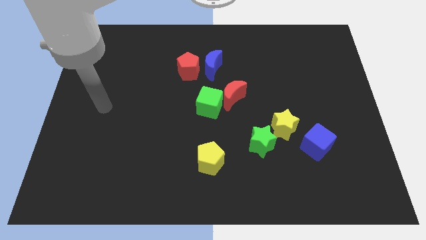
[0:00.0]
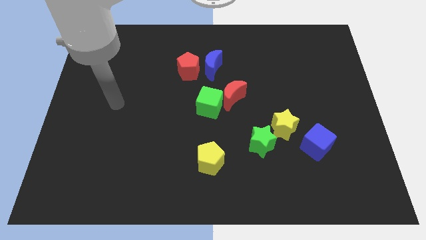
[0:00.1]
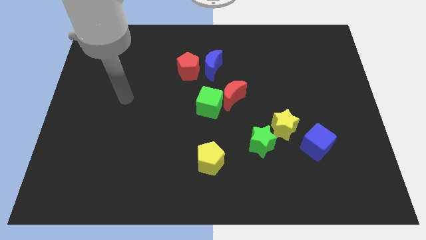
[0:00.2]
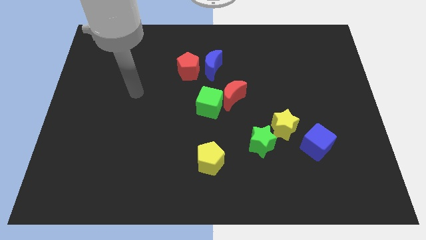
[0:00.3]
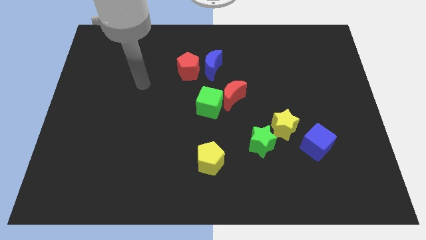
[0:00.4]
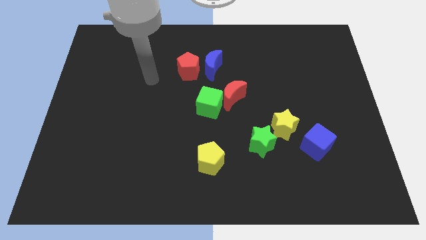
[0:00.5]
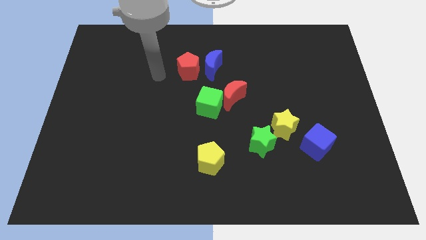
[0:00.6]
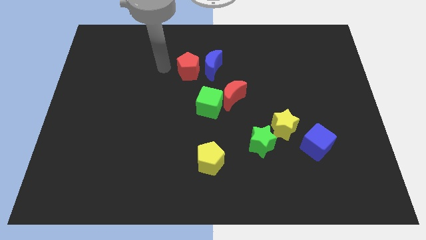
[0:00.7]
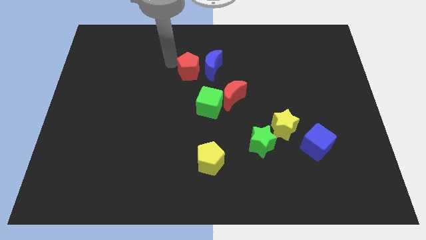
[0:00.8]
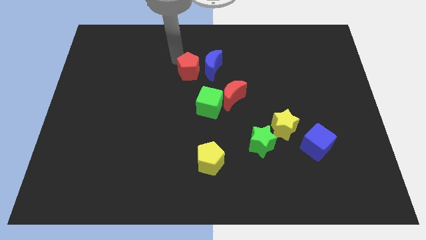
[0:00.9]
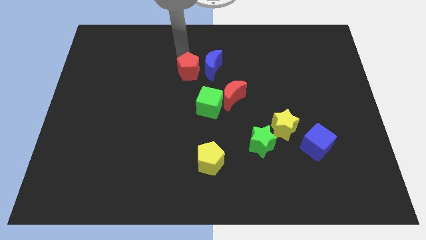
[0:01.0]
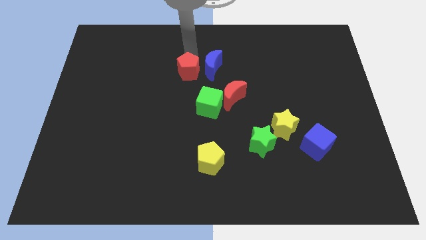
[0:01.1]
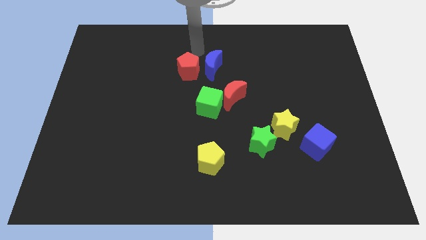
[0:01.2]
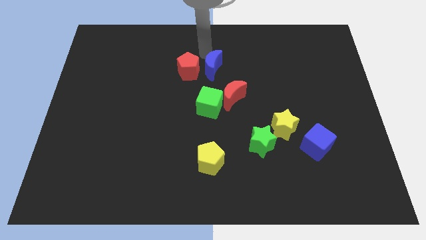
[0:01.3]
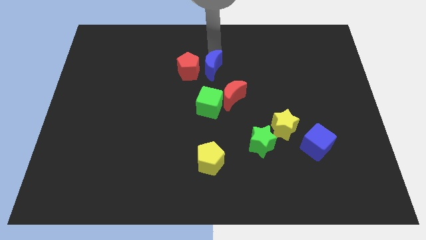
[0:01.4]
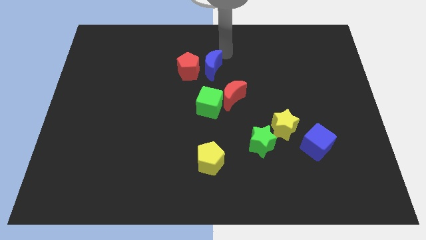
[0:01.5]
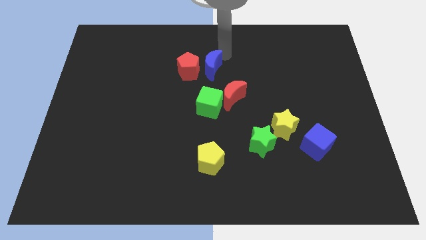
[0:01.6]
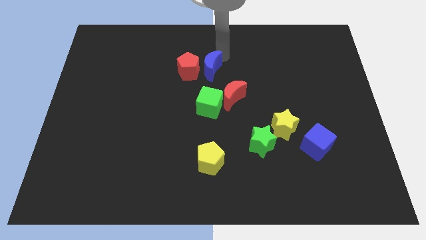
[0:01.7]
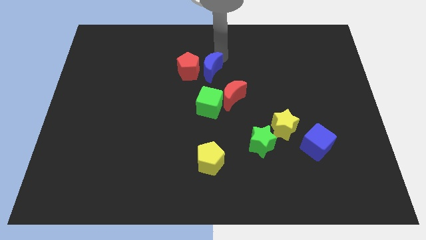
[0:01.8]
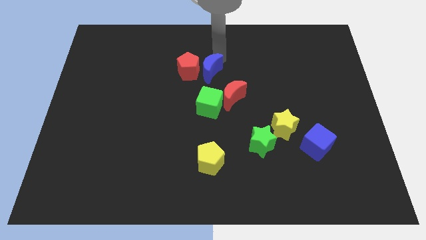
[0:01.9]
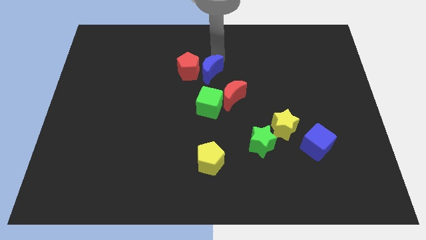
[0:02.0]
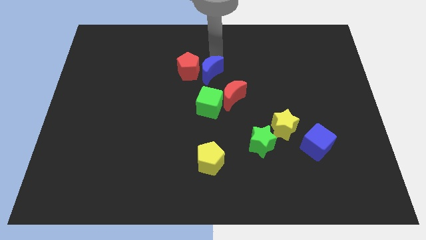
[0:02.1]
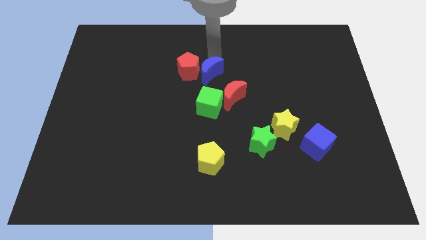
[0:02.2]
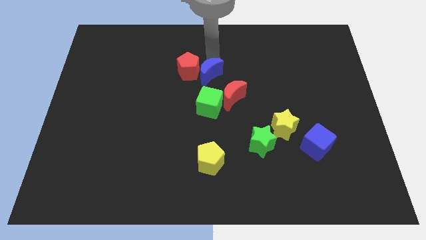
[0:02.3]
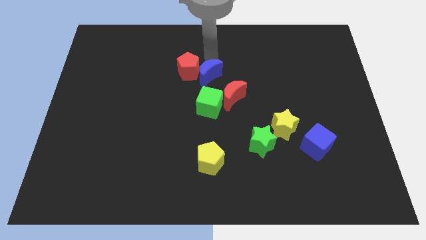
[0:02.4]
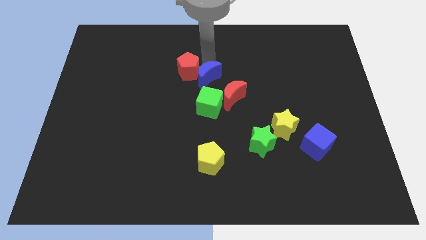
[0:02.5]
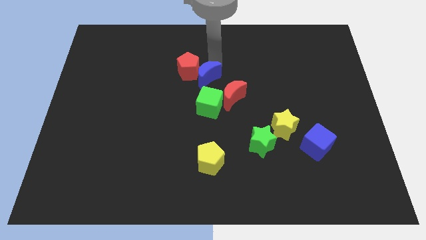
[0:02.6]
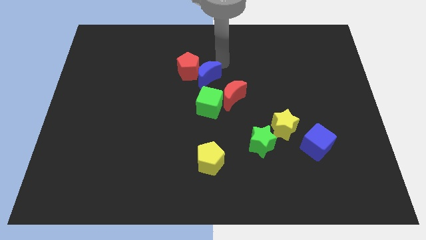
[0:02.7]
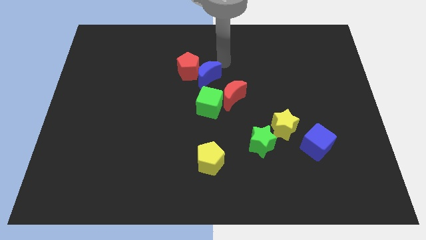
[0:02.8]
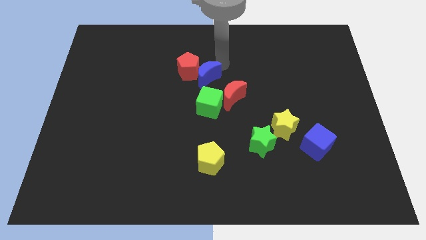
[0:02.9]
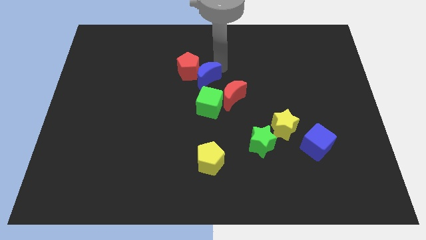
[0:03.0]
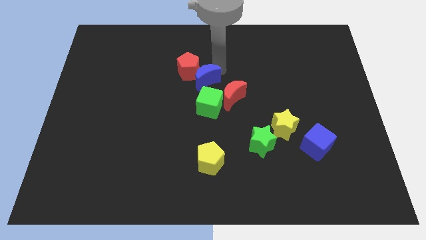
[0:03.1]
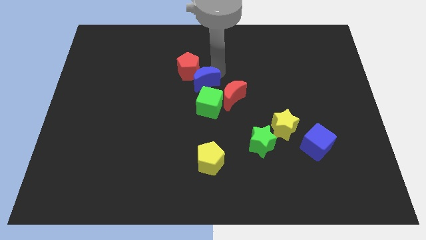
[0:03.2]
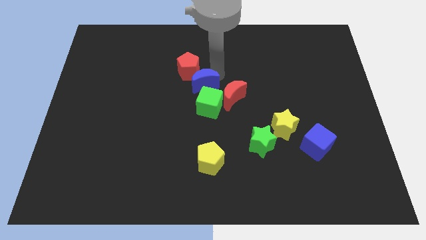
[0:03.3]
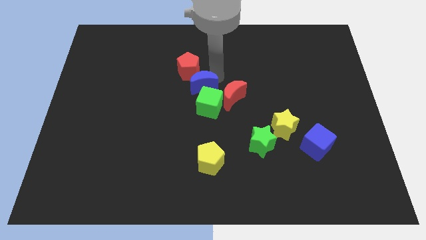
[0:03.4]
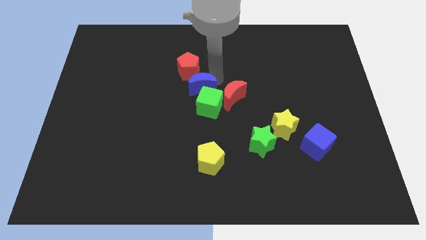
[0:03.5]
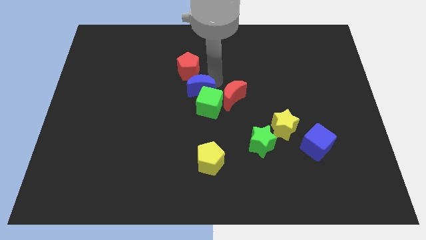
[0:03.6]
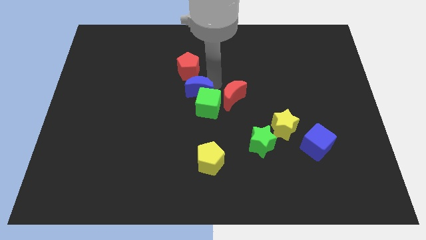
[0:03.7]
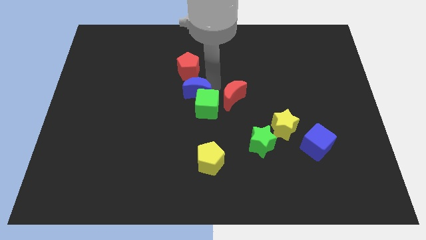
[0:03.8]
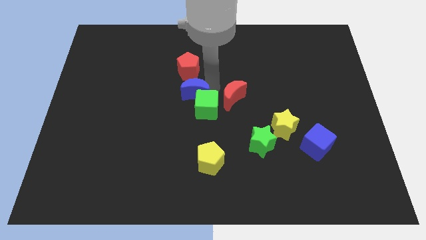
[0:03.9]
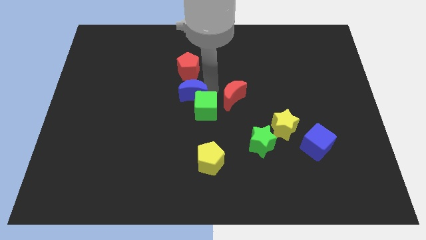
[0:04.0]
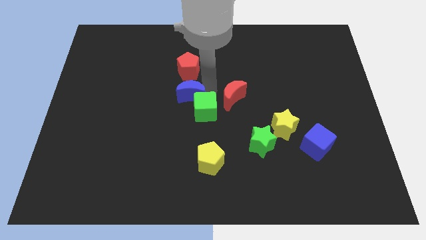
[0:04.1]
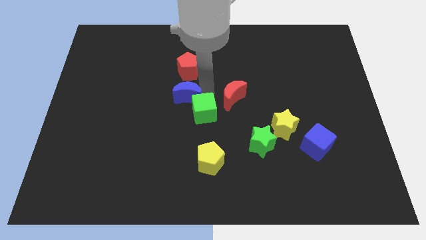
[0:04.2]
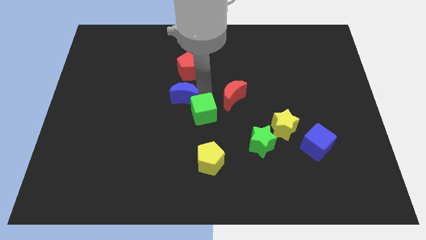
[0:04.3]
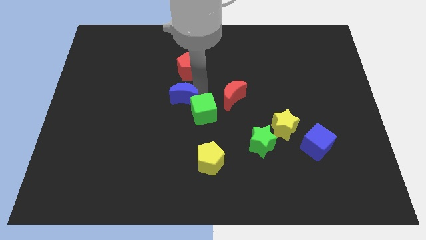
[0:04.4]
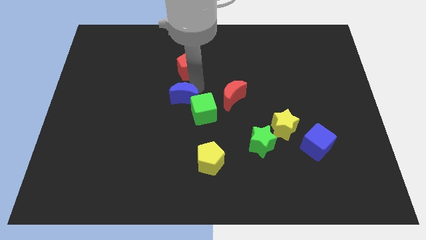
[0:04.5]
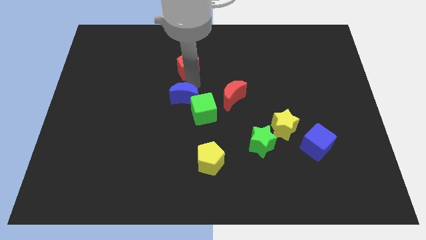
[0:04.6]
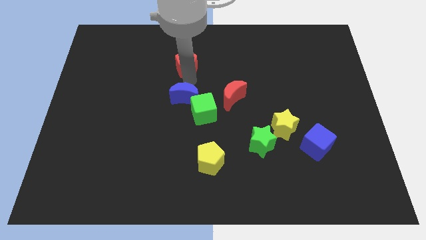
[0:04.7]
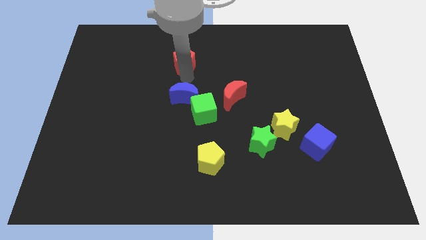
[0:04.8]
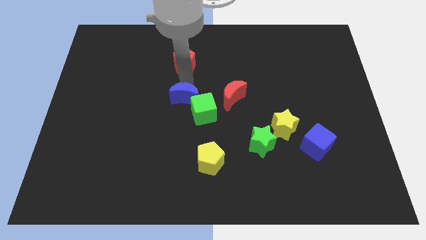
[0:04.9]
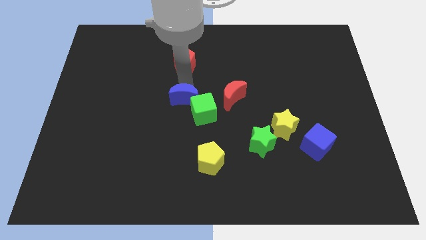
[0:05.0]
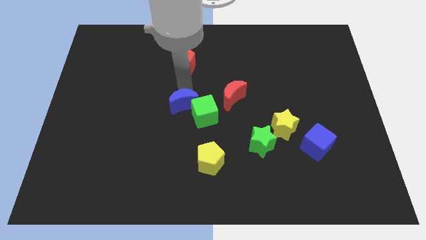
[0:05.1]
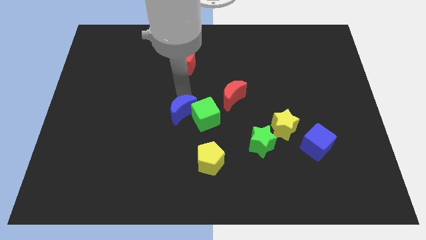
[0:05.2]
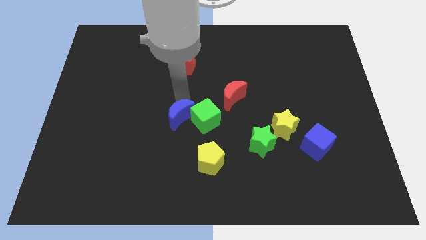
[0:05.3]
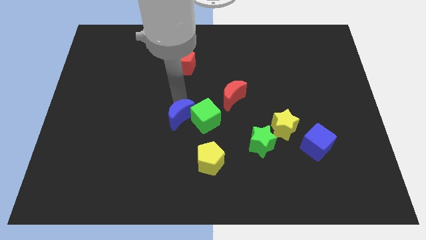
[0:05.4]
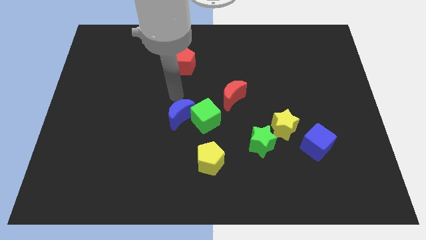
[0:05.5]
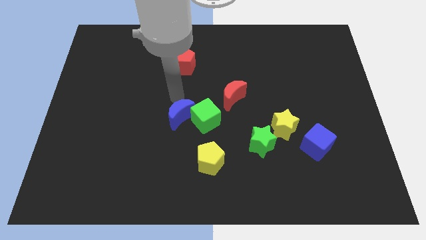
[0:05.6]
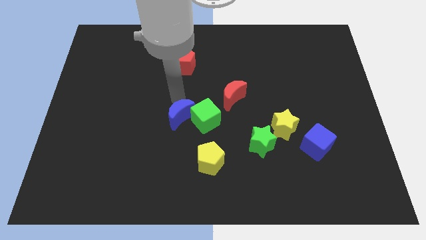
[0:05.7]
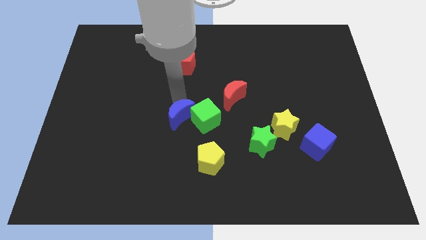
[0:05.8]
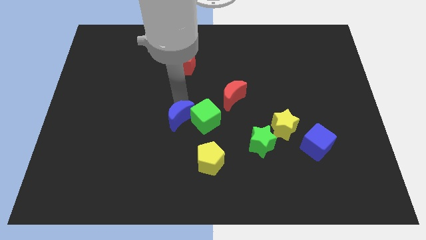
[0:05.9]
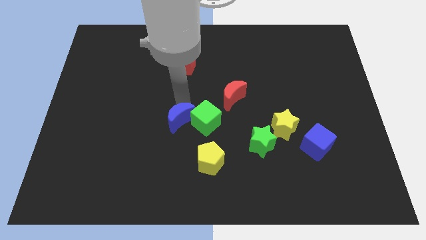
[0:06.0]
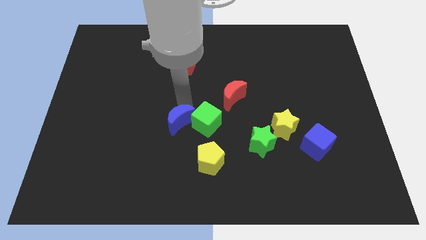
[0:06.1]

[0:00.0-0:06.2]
slide the blue moon diagonally up and to the left of the yellow pentagon
